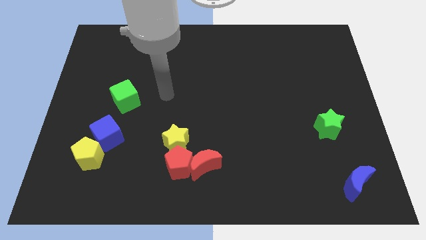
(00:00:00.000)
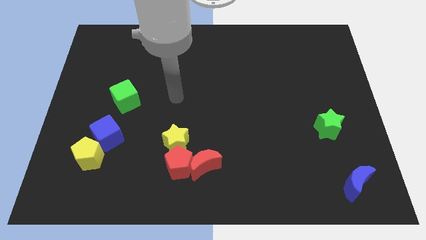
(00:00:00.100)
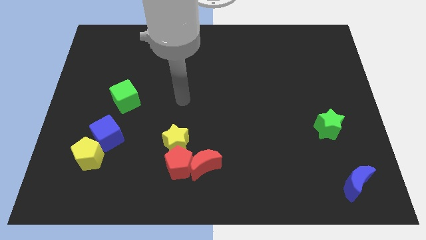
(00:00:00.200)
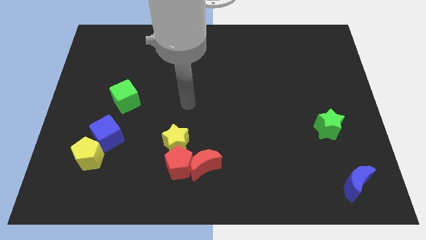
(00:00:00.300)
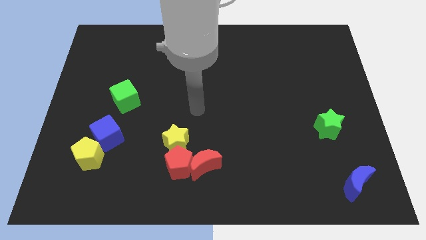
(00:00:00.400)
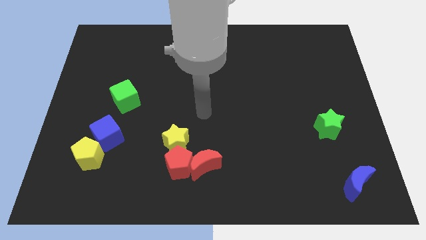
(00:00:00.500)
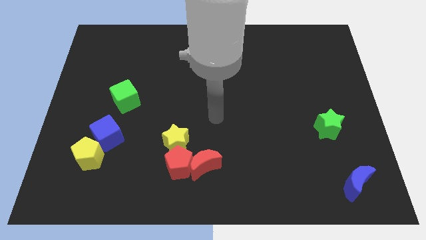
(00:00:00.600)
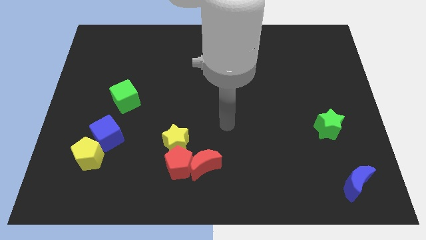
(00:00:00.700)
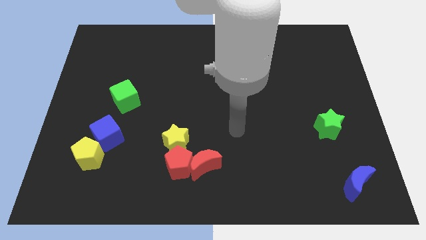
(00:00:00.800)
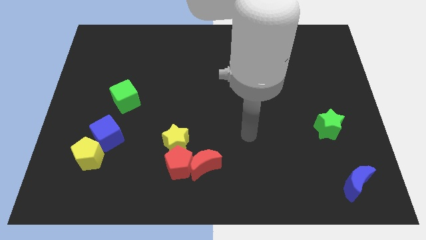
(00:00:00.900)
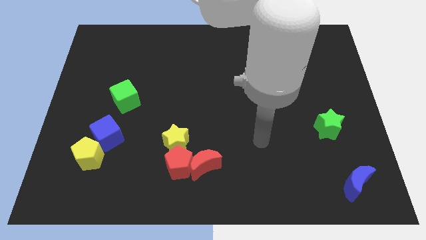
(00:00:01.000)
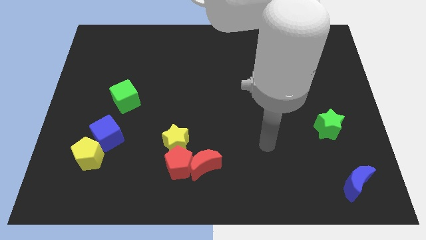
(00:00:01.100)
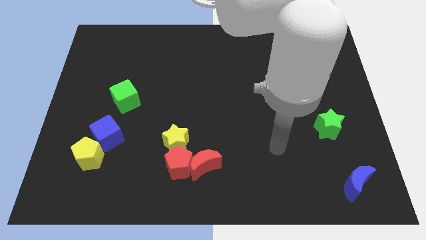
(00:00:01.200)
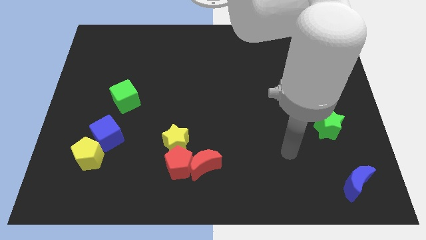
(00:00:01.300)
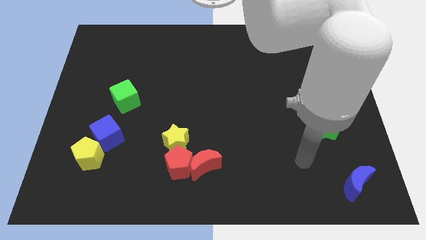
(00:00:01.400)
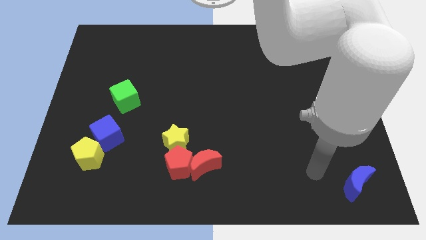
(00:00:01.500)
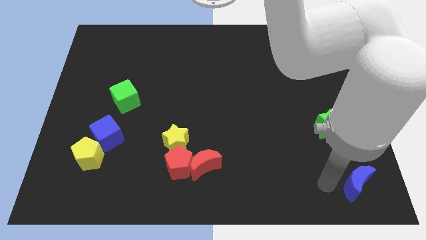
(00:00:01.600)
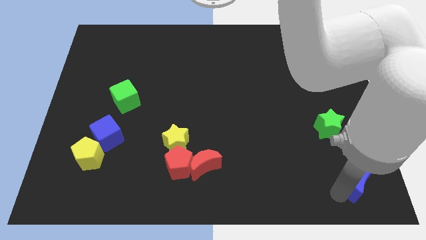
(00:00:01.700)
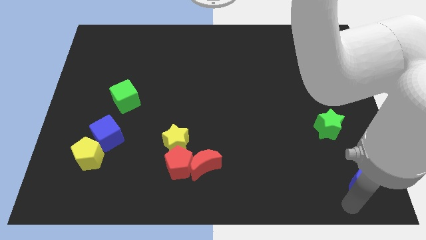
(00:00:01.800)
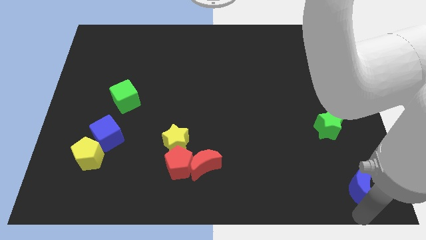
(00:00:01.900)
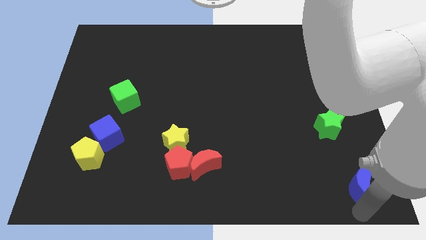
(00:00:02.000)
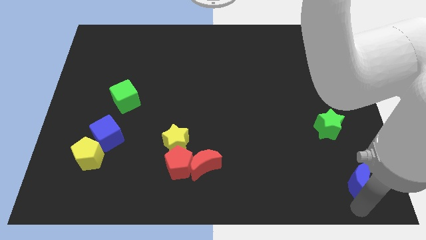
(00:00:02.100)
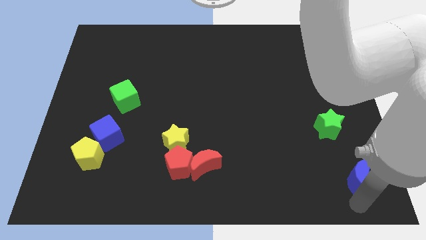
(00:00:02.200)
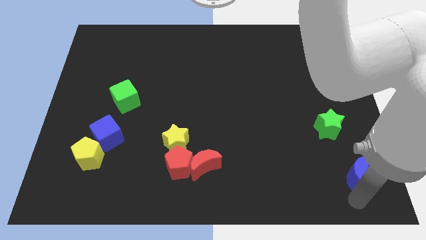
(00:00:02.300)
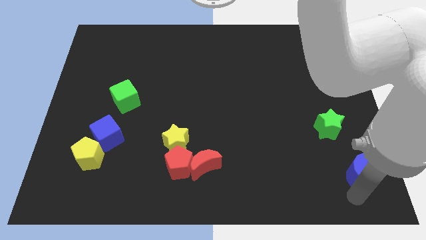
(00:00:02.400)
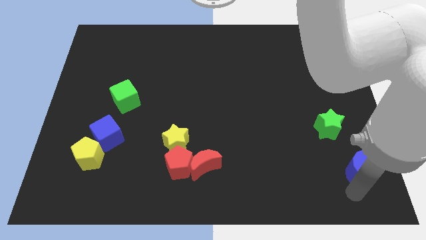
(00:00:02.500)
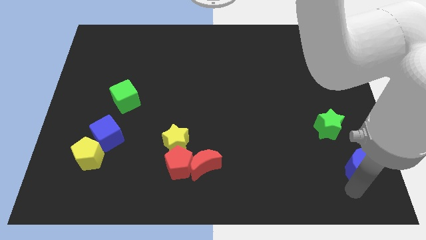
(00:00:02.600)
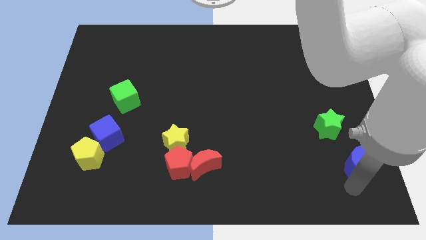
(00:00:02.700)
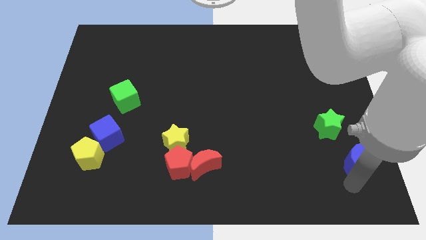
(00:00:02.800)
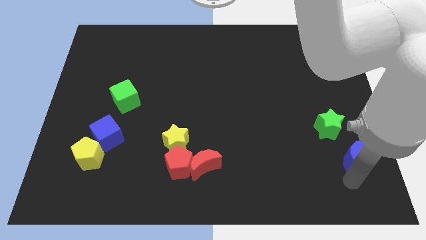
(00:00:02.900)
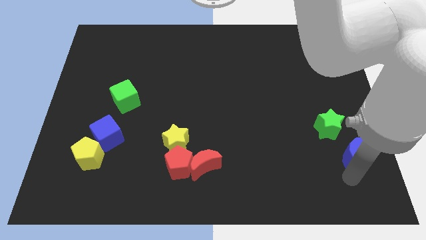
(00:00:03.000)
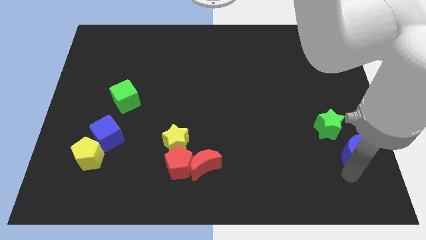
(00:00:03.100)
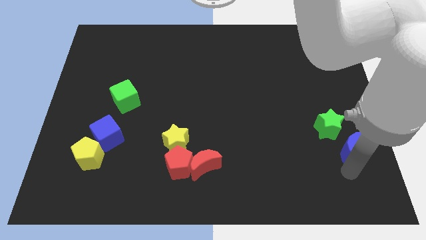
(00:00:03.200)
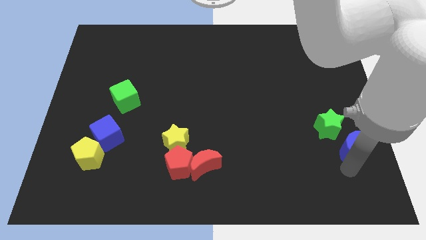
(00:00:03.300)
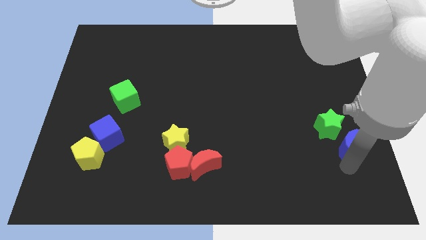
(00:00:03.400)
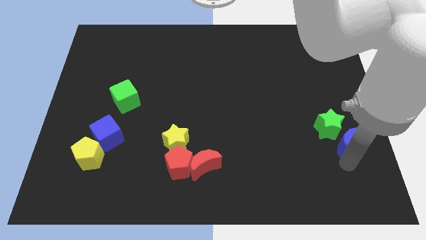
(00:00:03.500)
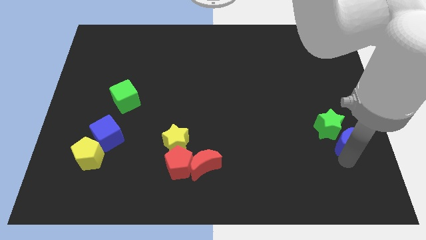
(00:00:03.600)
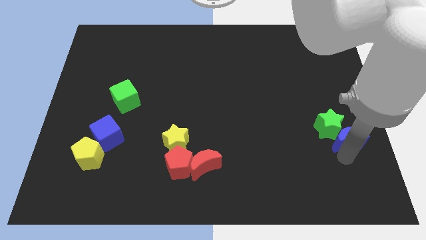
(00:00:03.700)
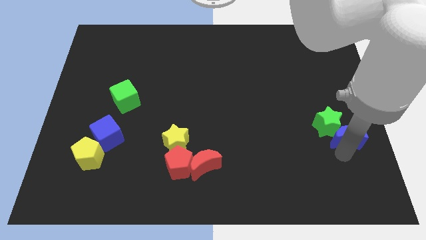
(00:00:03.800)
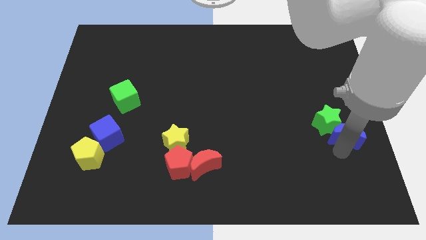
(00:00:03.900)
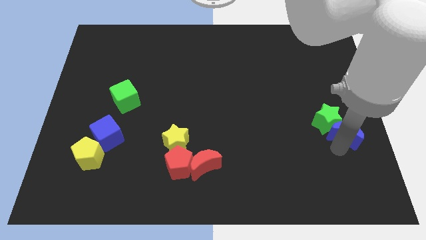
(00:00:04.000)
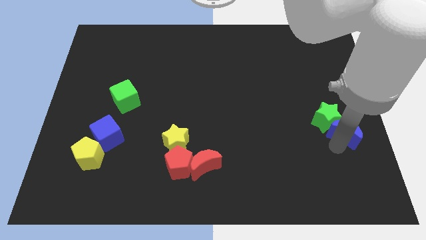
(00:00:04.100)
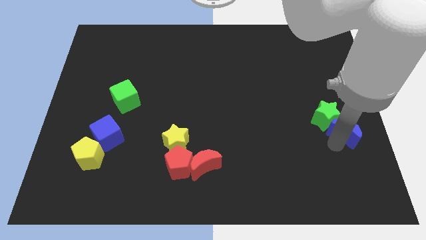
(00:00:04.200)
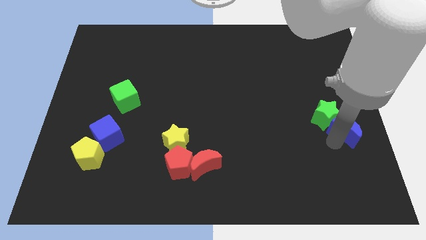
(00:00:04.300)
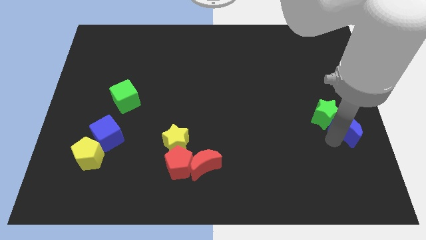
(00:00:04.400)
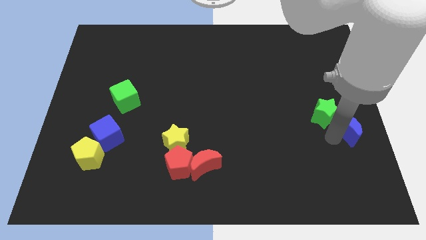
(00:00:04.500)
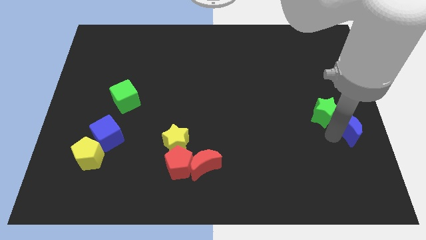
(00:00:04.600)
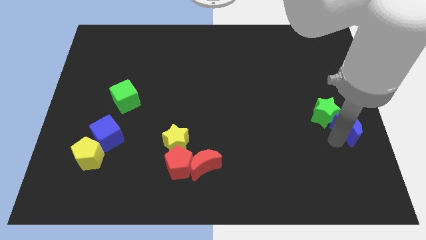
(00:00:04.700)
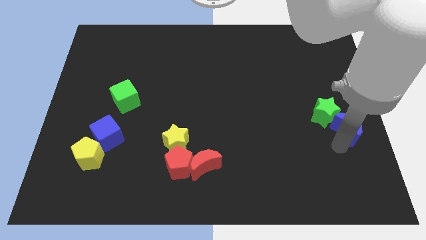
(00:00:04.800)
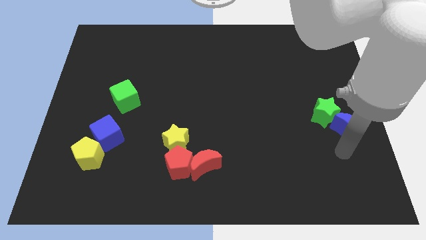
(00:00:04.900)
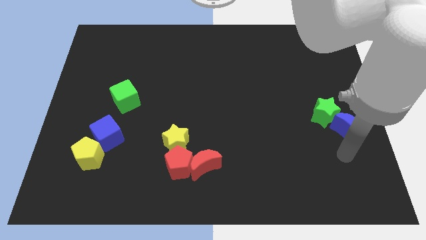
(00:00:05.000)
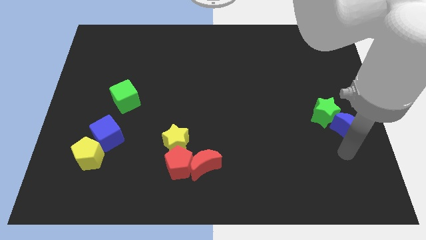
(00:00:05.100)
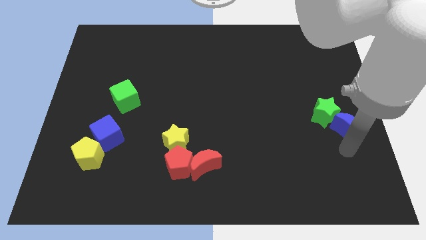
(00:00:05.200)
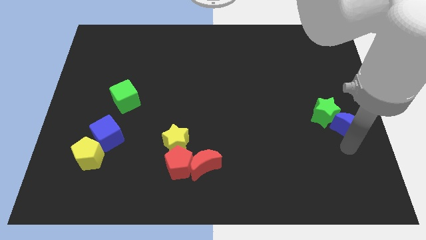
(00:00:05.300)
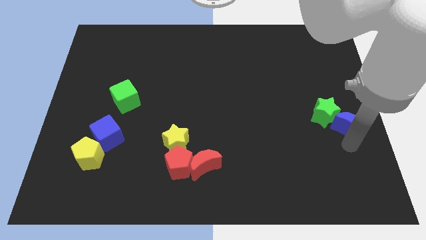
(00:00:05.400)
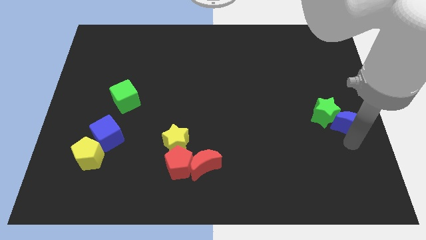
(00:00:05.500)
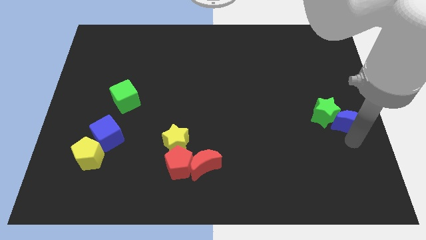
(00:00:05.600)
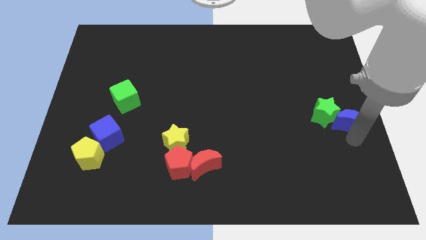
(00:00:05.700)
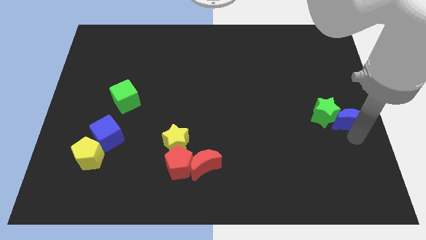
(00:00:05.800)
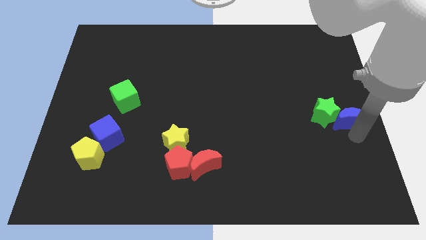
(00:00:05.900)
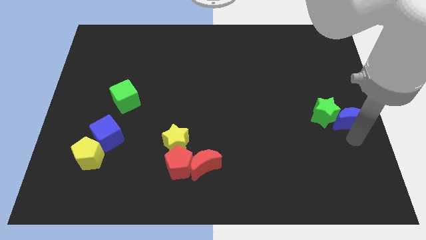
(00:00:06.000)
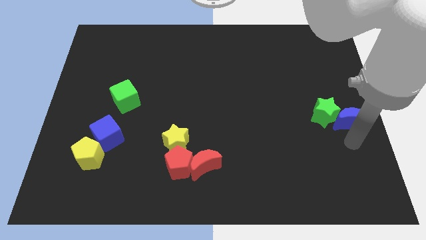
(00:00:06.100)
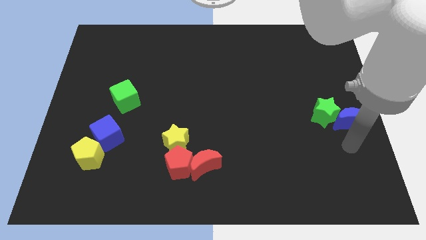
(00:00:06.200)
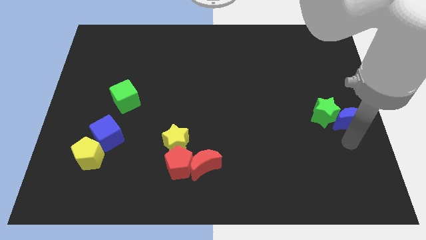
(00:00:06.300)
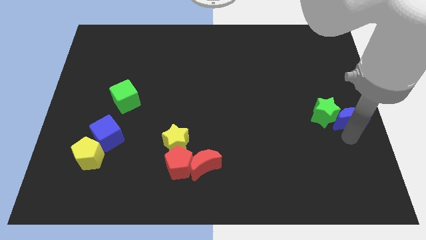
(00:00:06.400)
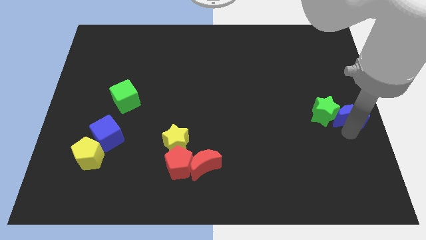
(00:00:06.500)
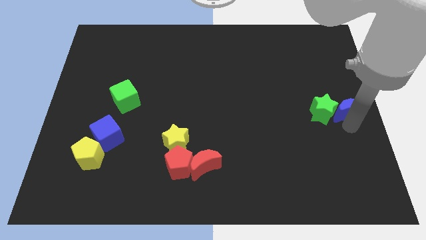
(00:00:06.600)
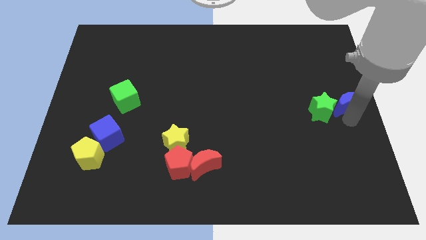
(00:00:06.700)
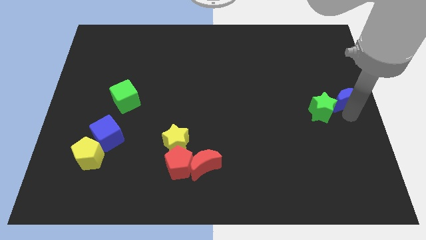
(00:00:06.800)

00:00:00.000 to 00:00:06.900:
push the blue moon upwards

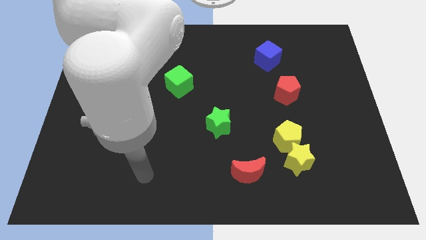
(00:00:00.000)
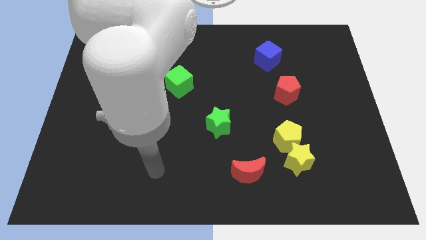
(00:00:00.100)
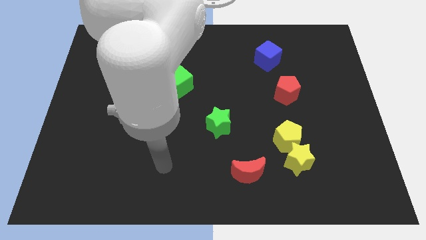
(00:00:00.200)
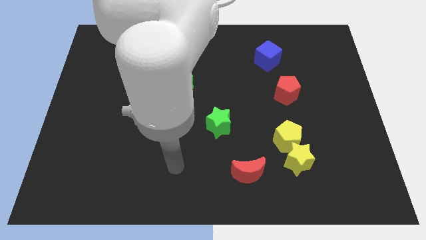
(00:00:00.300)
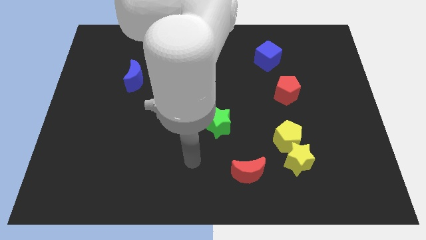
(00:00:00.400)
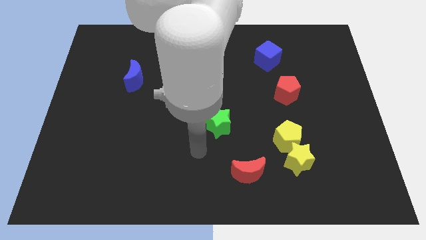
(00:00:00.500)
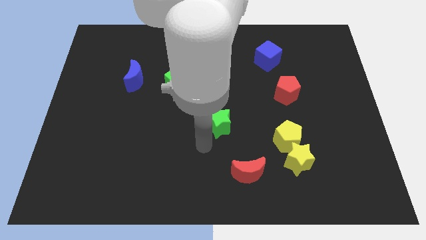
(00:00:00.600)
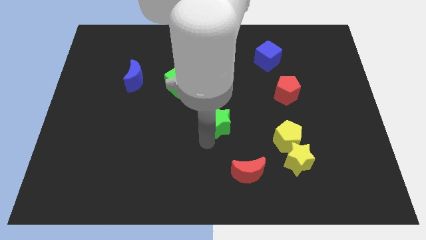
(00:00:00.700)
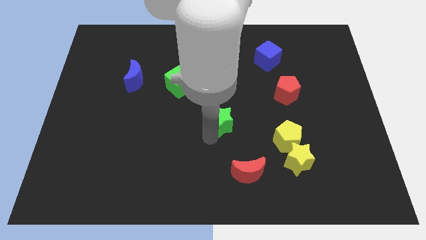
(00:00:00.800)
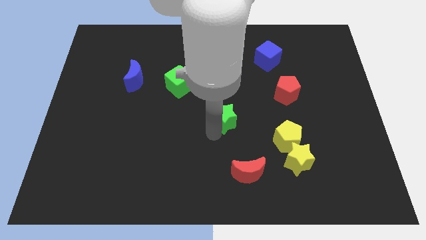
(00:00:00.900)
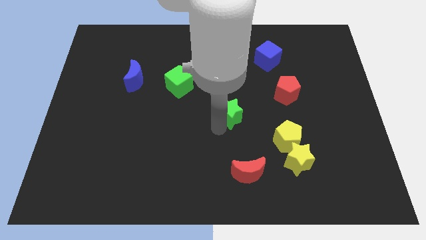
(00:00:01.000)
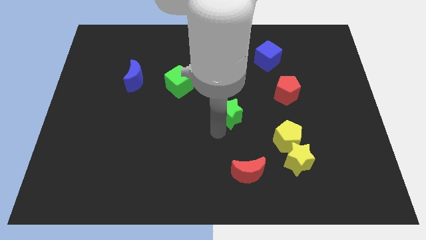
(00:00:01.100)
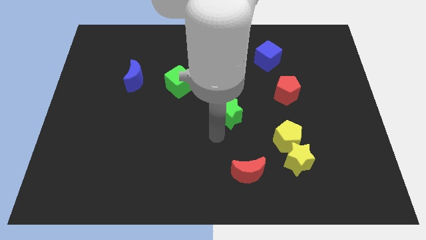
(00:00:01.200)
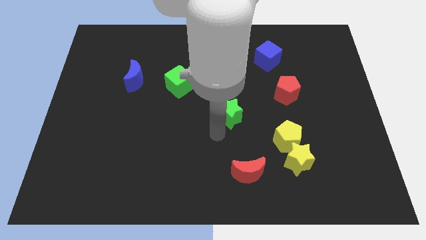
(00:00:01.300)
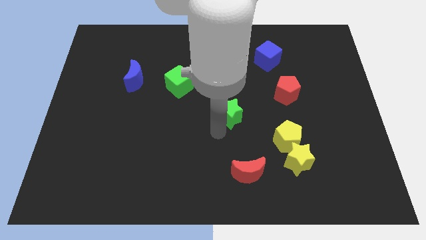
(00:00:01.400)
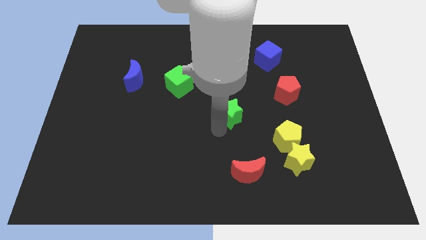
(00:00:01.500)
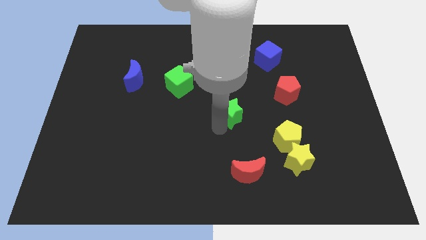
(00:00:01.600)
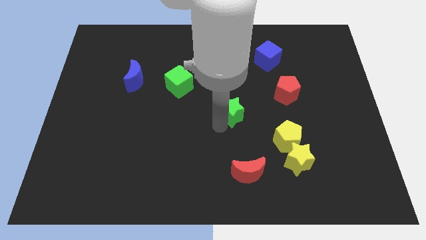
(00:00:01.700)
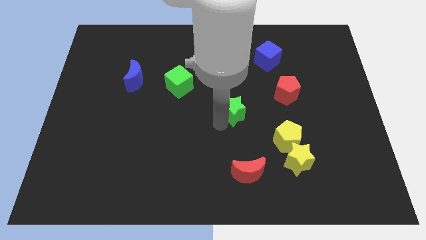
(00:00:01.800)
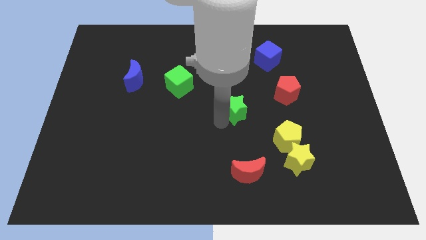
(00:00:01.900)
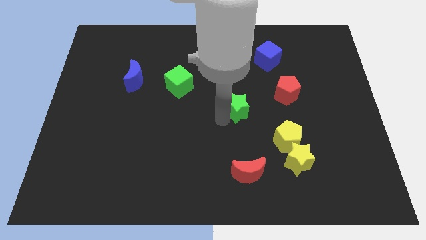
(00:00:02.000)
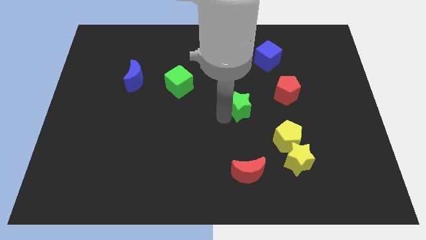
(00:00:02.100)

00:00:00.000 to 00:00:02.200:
slide the green star a bit up and right diagonally
